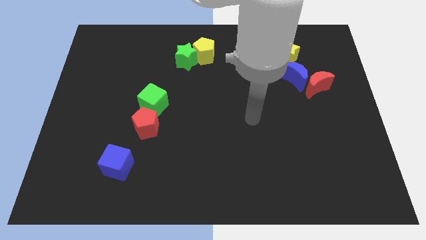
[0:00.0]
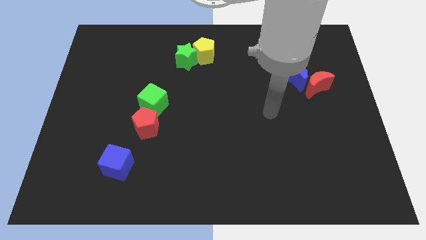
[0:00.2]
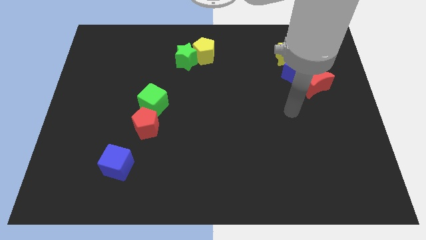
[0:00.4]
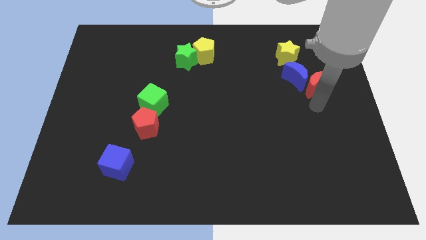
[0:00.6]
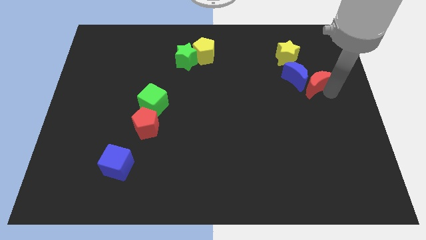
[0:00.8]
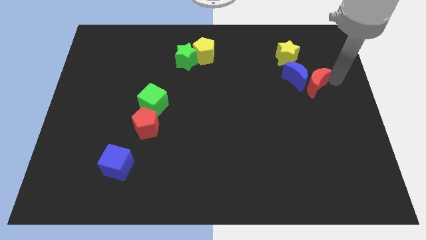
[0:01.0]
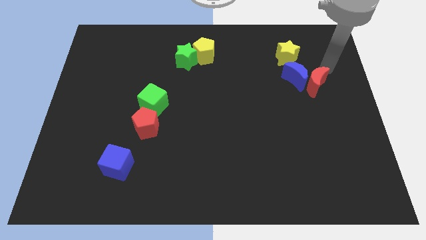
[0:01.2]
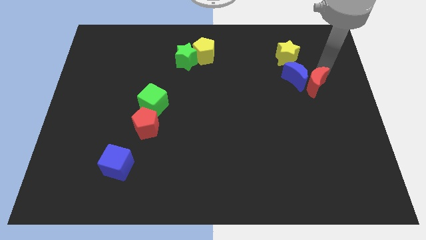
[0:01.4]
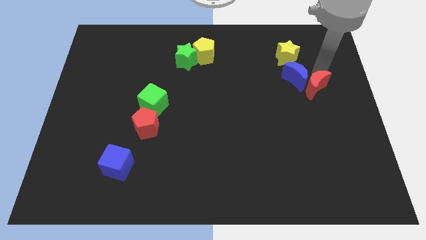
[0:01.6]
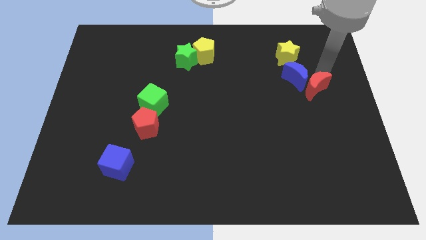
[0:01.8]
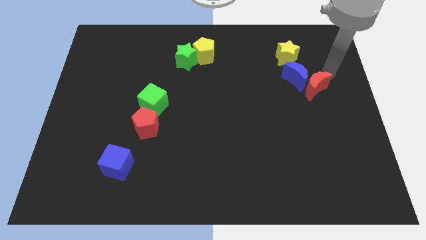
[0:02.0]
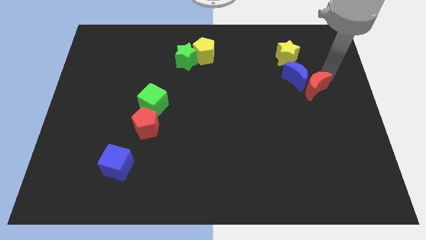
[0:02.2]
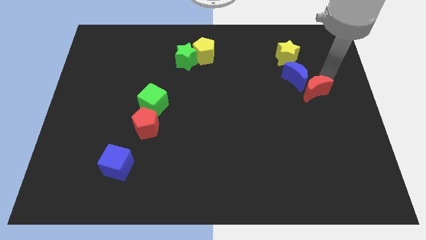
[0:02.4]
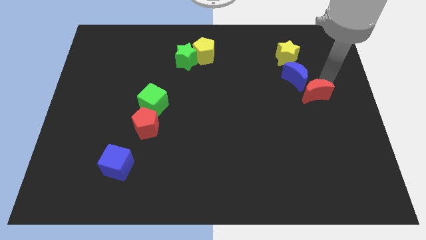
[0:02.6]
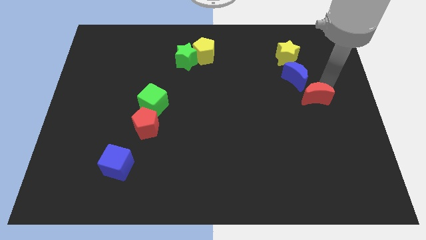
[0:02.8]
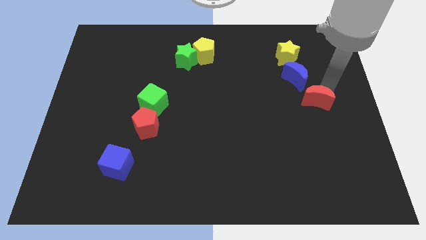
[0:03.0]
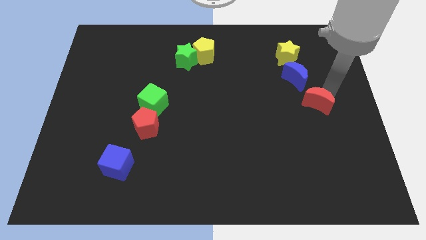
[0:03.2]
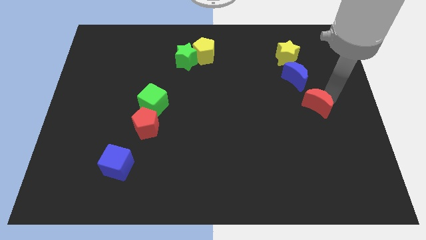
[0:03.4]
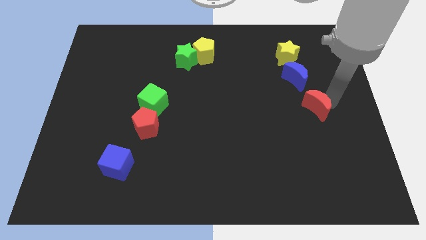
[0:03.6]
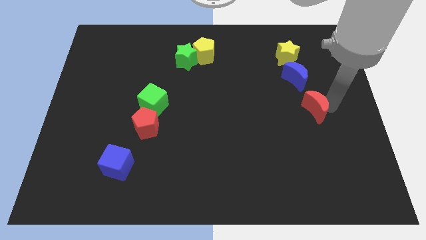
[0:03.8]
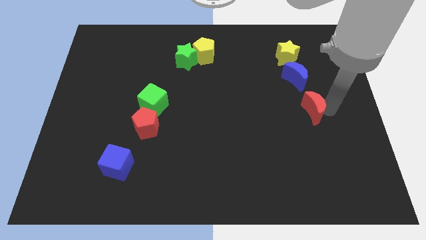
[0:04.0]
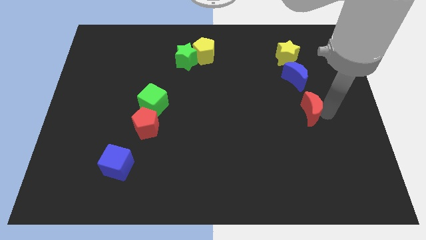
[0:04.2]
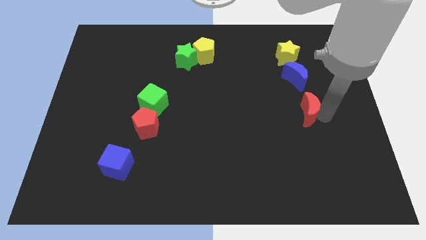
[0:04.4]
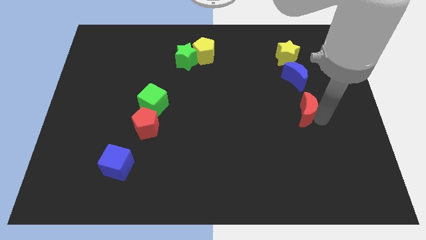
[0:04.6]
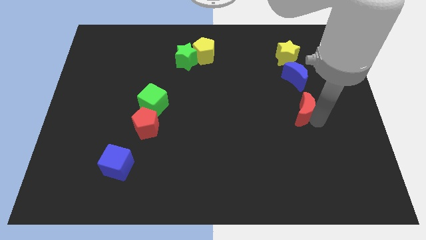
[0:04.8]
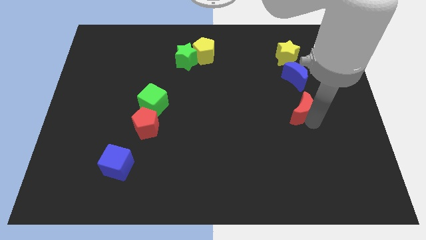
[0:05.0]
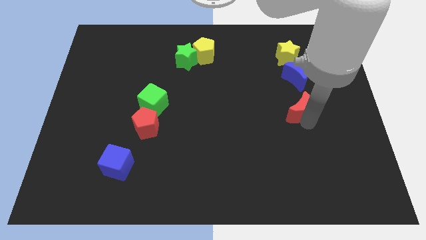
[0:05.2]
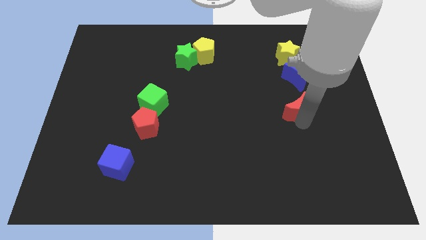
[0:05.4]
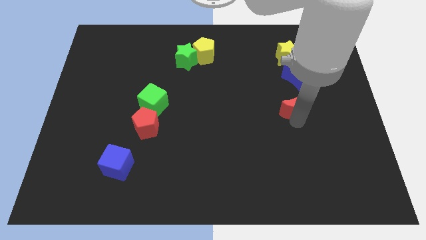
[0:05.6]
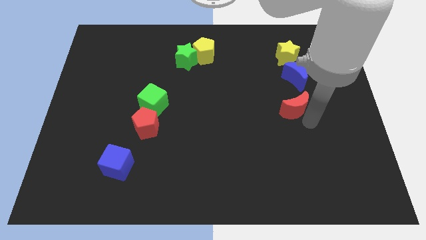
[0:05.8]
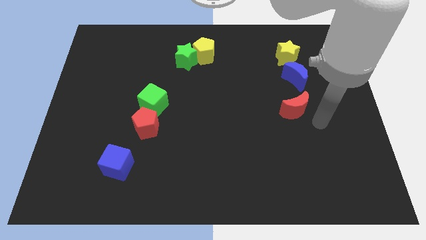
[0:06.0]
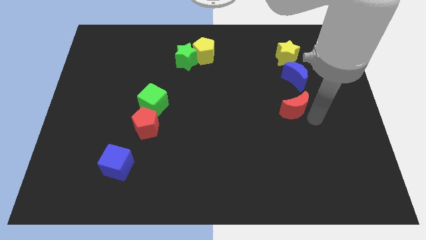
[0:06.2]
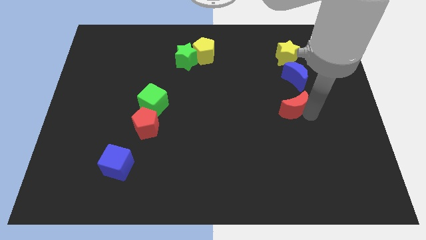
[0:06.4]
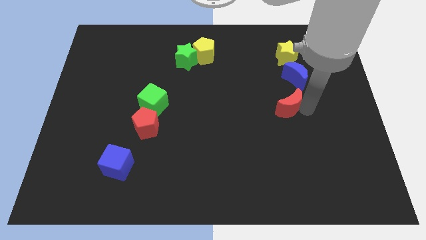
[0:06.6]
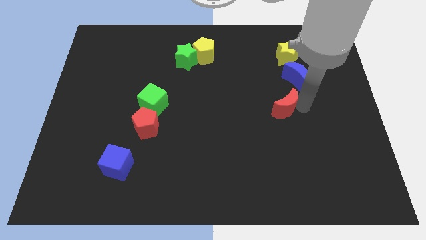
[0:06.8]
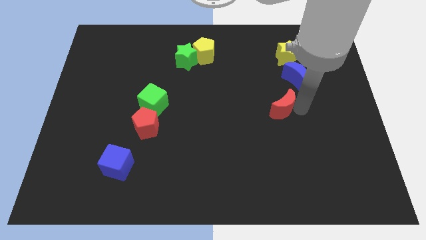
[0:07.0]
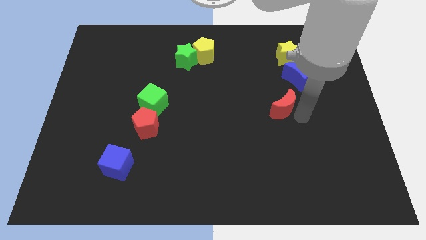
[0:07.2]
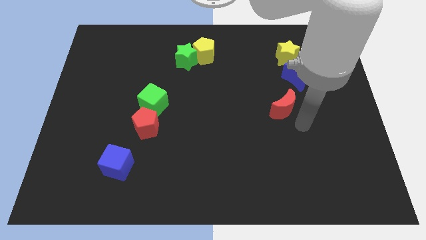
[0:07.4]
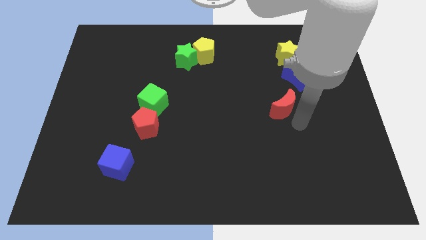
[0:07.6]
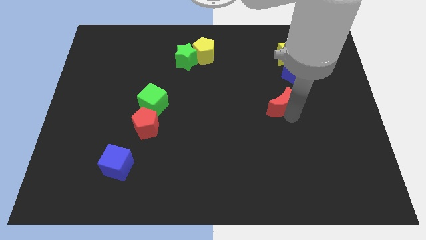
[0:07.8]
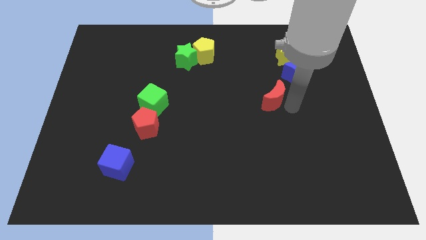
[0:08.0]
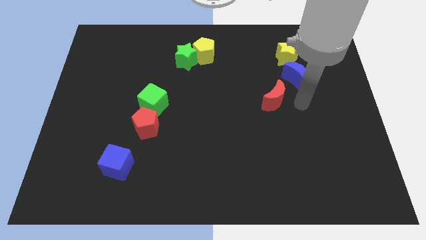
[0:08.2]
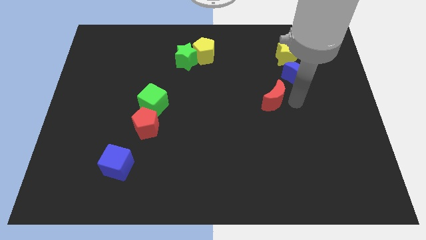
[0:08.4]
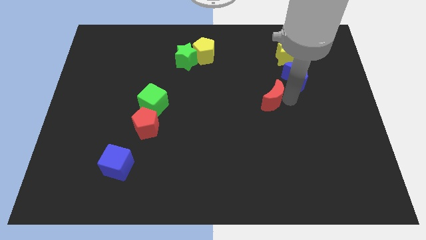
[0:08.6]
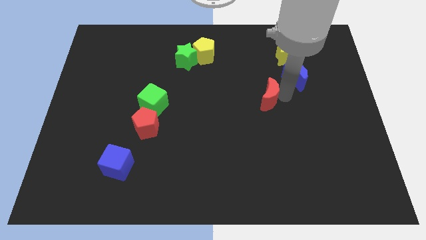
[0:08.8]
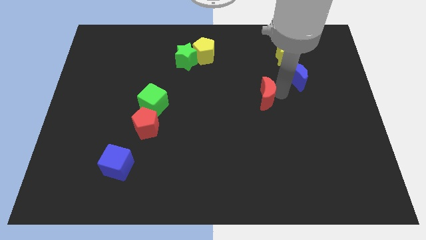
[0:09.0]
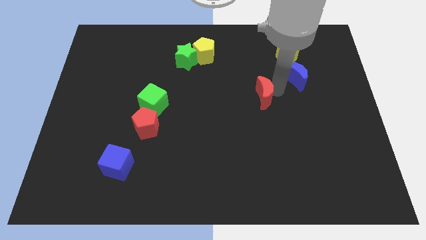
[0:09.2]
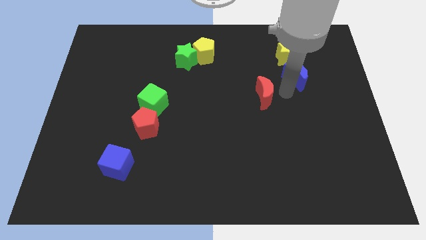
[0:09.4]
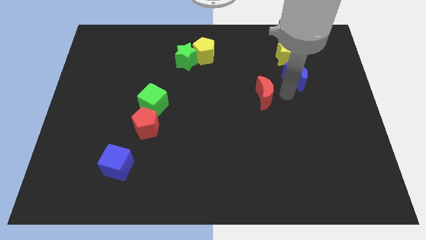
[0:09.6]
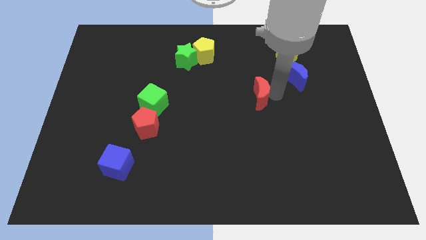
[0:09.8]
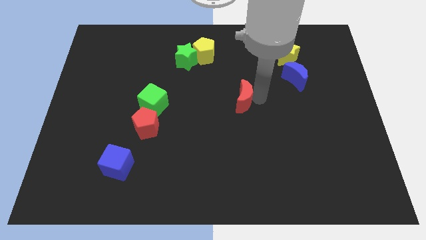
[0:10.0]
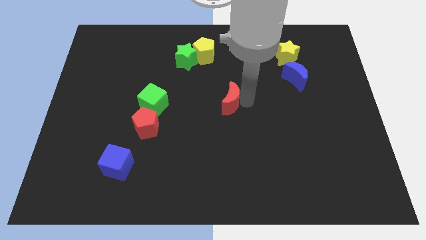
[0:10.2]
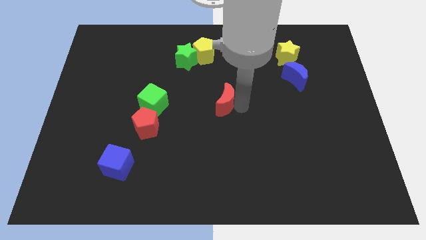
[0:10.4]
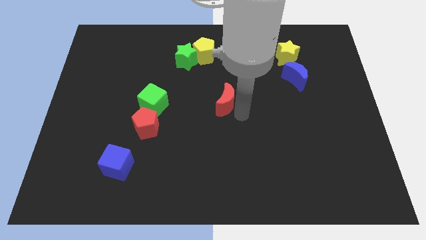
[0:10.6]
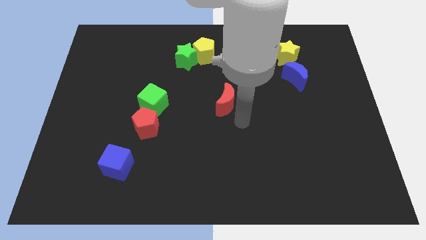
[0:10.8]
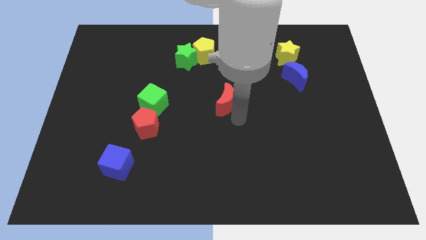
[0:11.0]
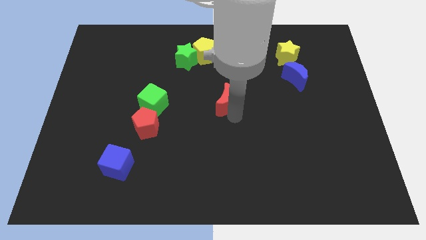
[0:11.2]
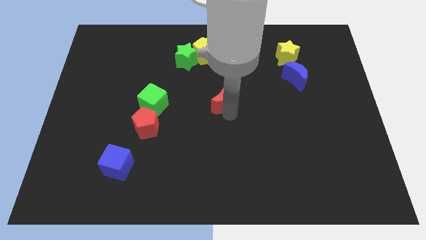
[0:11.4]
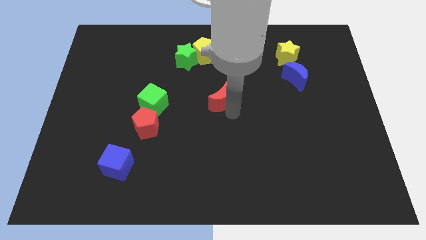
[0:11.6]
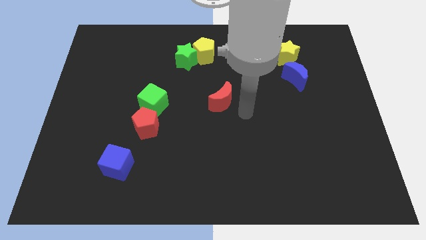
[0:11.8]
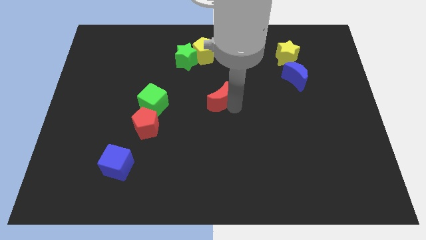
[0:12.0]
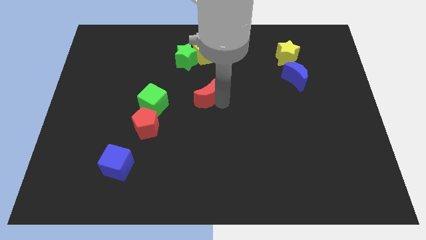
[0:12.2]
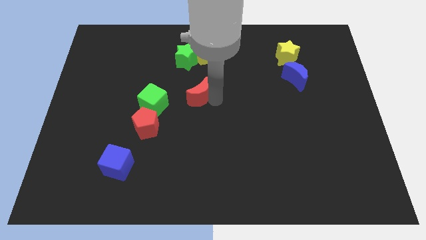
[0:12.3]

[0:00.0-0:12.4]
put the red moon to the bottom side of the green star

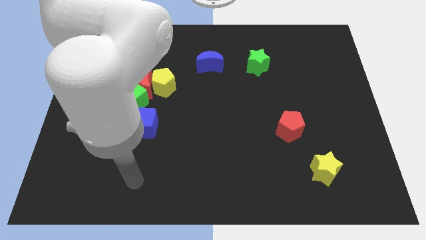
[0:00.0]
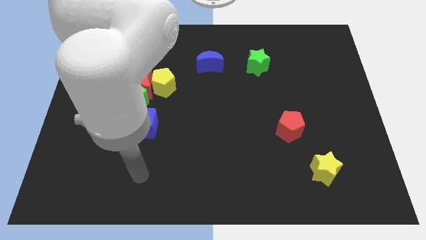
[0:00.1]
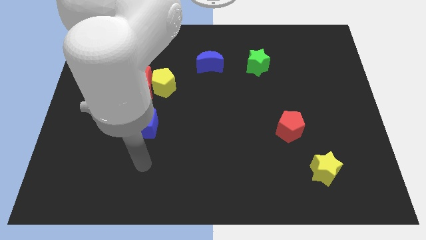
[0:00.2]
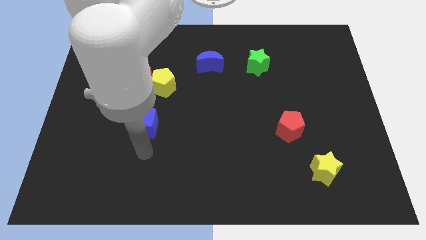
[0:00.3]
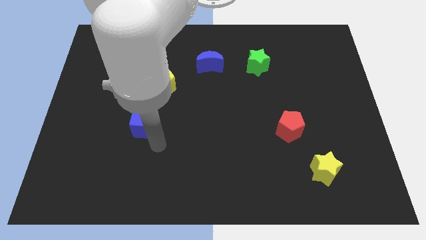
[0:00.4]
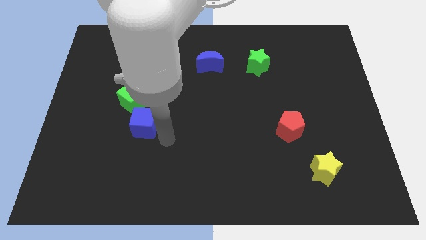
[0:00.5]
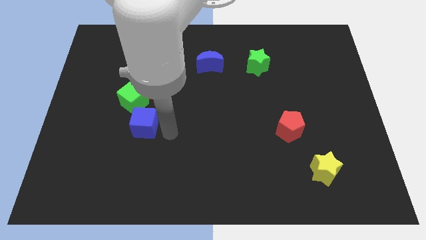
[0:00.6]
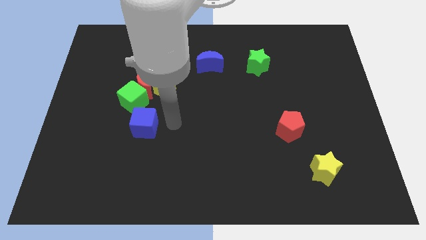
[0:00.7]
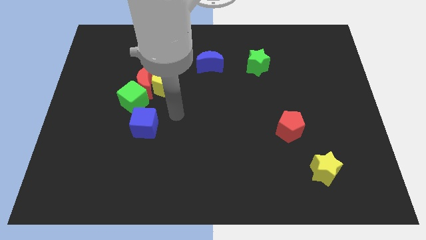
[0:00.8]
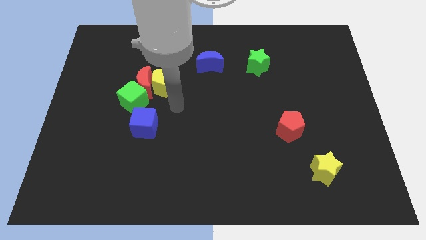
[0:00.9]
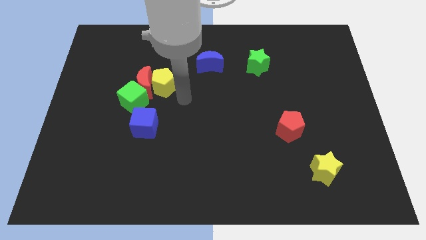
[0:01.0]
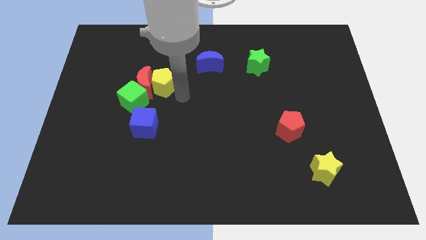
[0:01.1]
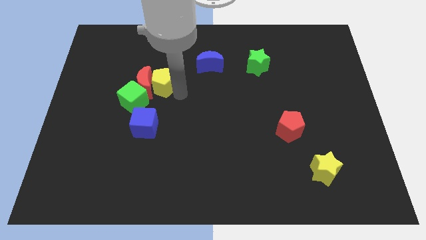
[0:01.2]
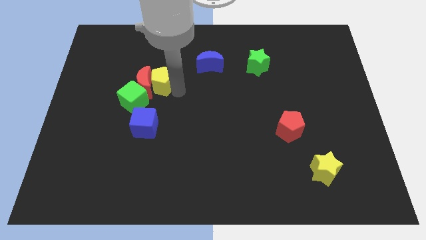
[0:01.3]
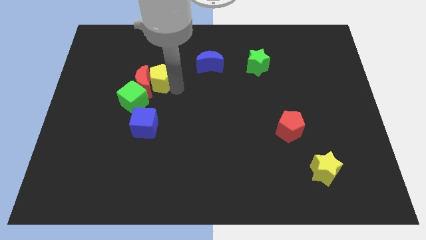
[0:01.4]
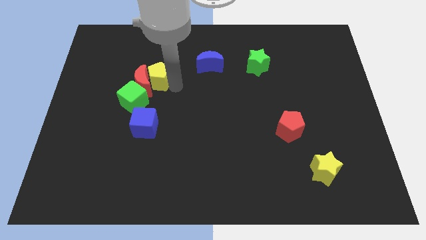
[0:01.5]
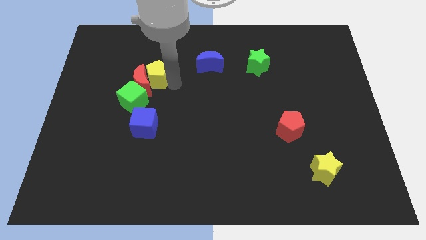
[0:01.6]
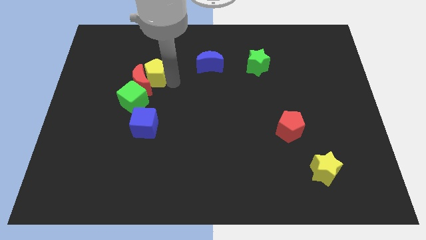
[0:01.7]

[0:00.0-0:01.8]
put the yellow pentagon to the top side of the green cube

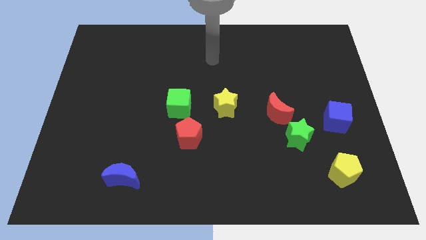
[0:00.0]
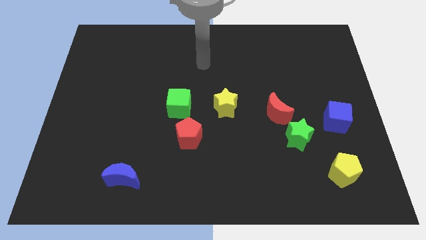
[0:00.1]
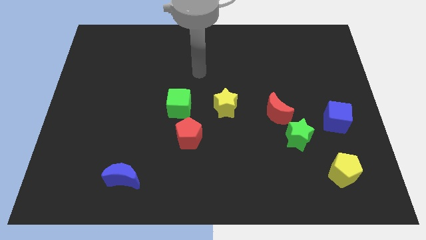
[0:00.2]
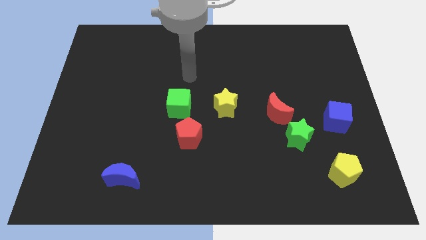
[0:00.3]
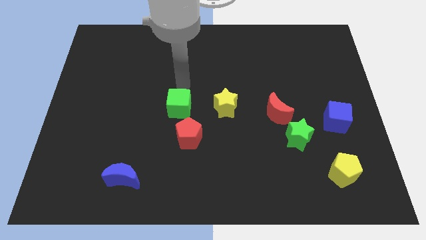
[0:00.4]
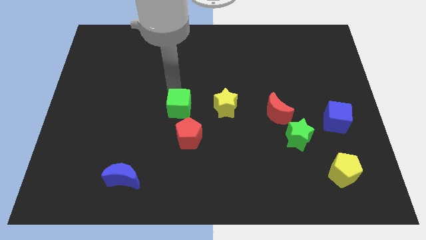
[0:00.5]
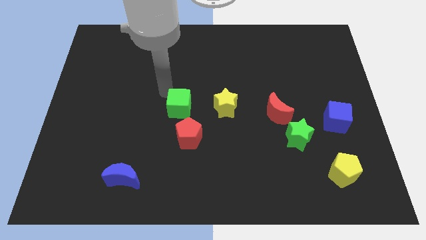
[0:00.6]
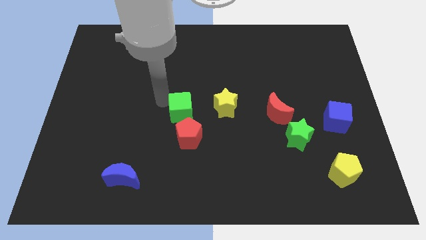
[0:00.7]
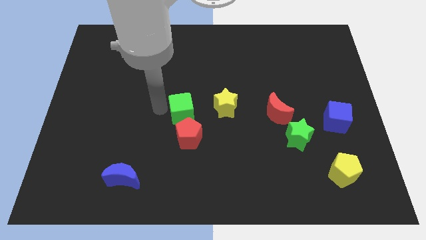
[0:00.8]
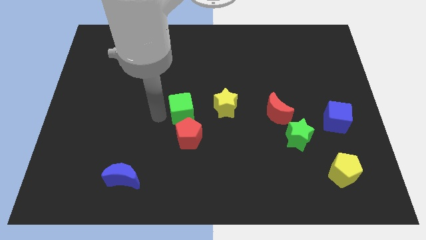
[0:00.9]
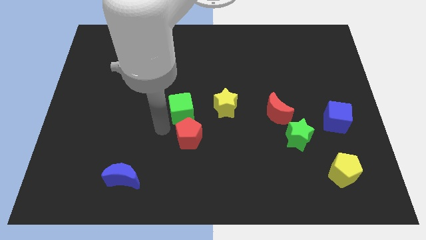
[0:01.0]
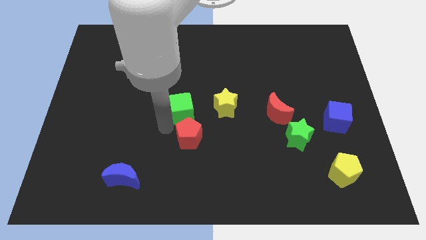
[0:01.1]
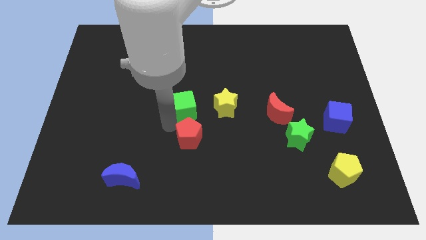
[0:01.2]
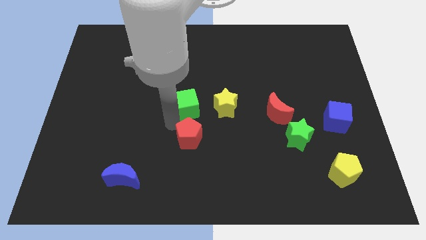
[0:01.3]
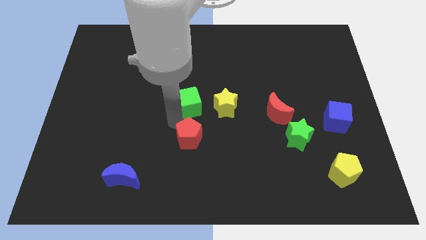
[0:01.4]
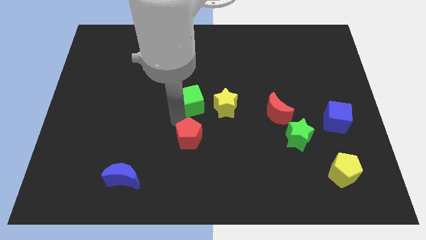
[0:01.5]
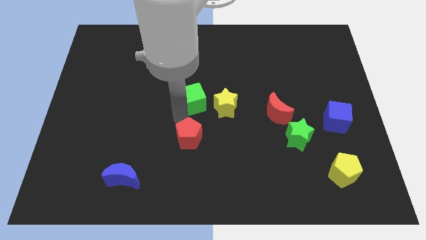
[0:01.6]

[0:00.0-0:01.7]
put the green cube to the top left of the yellow star
